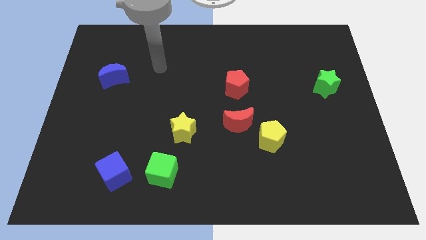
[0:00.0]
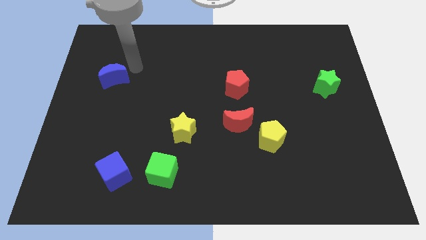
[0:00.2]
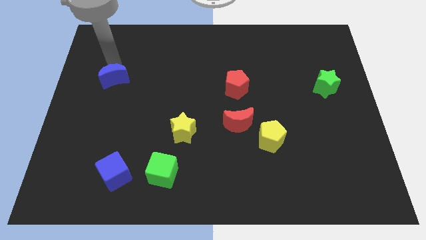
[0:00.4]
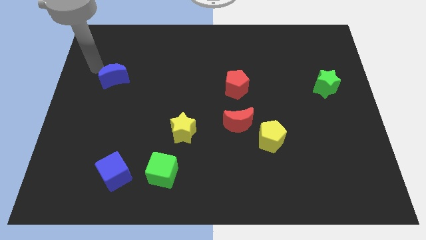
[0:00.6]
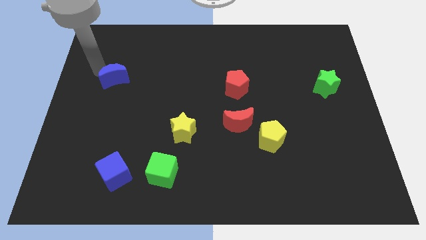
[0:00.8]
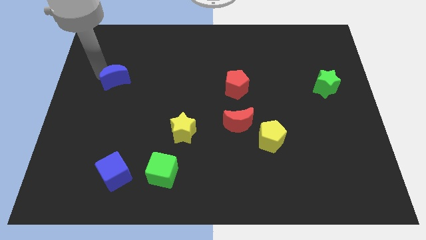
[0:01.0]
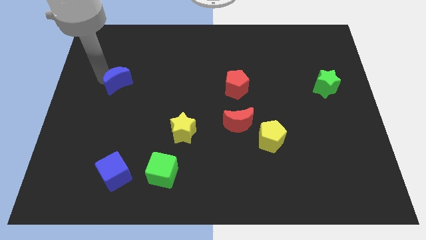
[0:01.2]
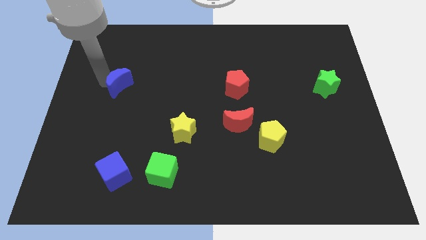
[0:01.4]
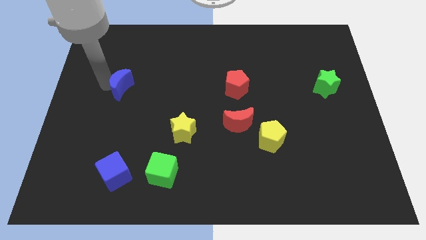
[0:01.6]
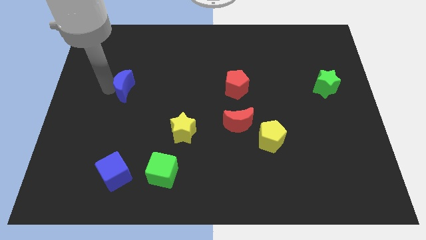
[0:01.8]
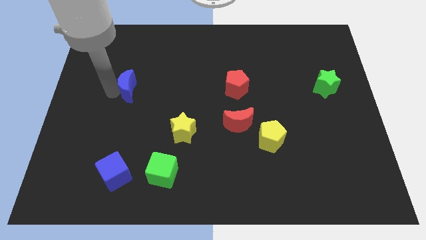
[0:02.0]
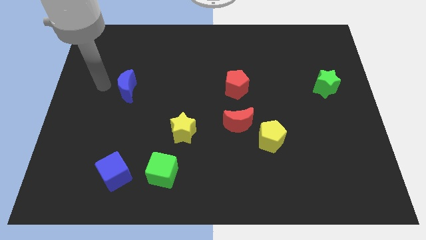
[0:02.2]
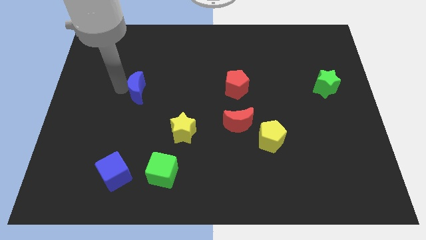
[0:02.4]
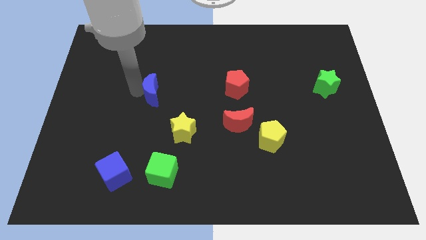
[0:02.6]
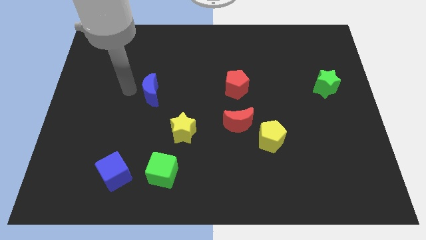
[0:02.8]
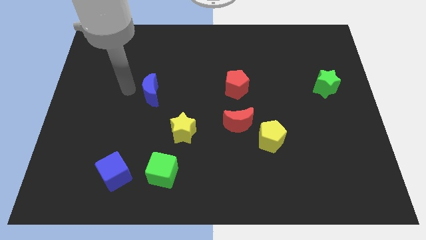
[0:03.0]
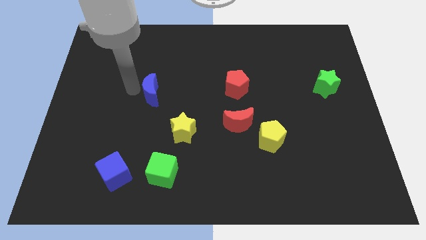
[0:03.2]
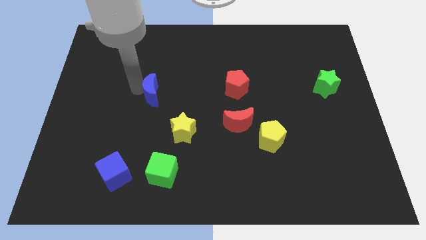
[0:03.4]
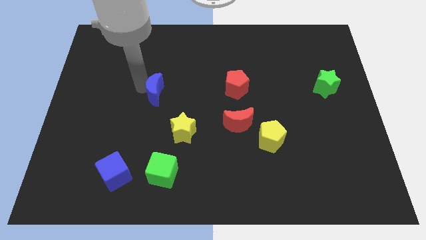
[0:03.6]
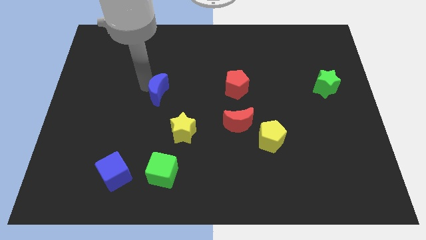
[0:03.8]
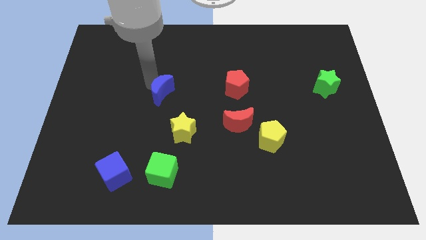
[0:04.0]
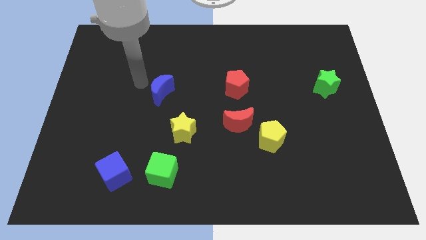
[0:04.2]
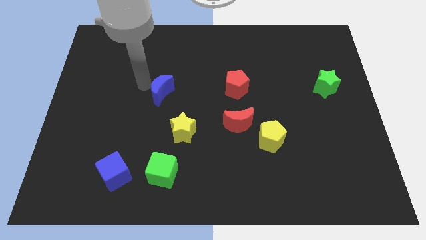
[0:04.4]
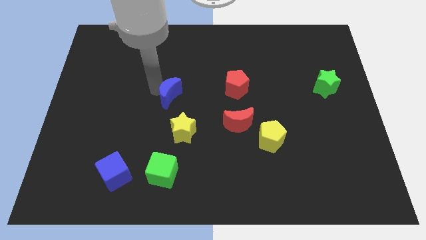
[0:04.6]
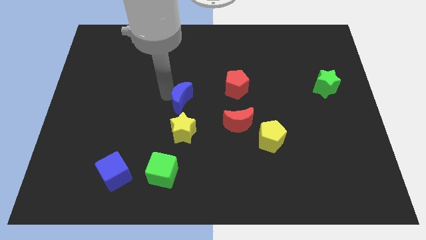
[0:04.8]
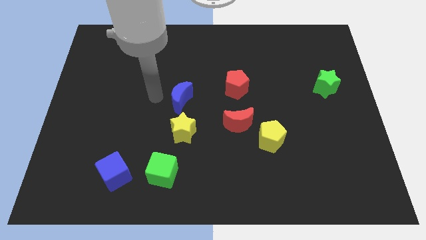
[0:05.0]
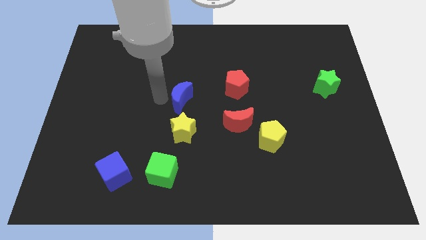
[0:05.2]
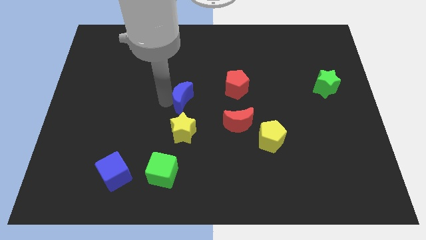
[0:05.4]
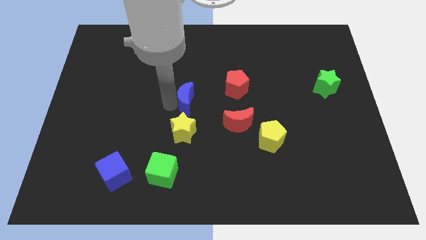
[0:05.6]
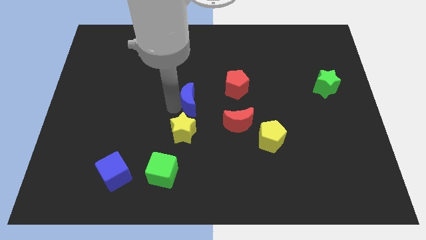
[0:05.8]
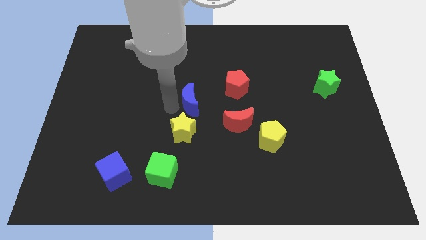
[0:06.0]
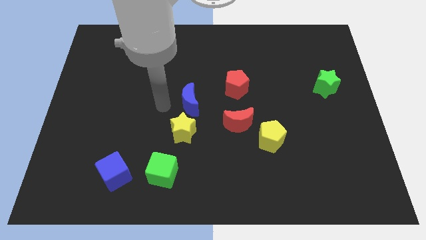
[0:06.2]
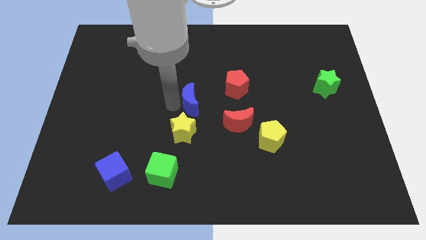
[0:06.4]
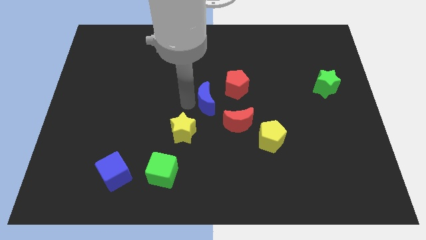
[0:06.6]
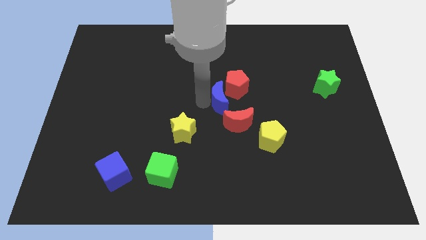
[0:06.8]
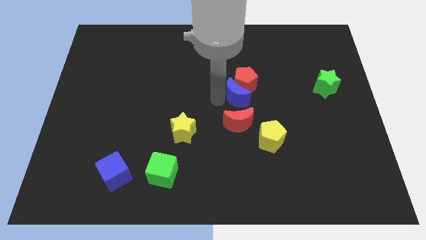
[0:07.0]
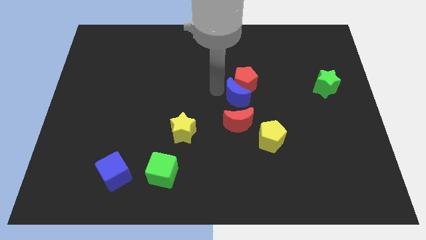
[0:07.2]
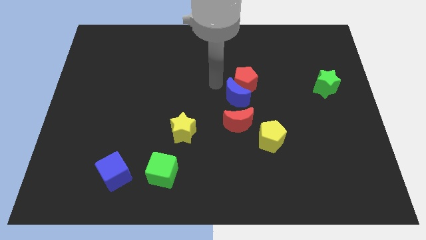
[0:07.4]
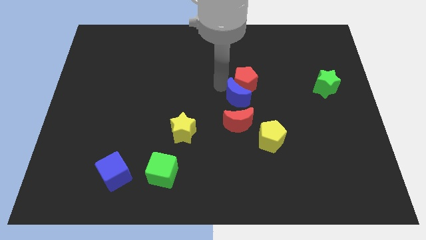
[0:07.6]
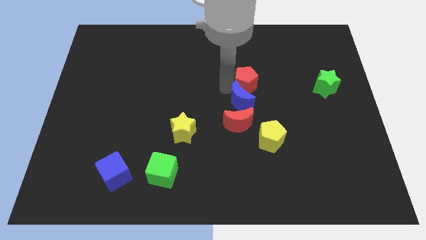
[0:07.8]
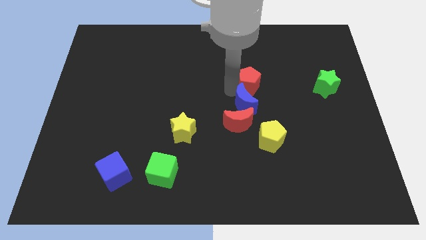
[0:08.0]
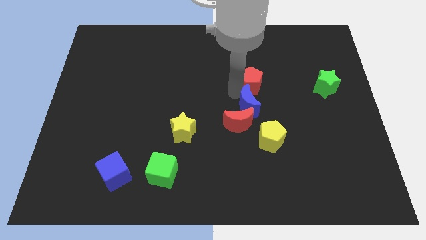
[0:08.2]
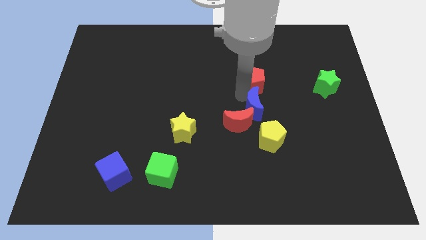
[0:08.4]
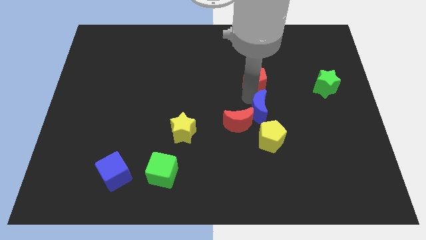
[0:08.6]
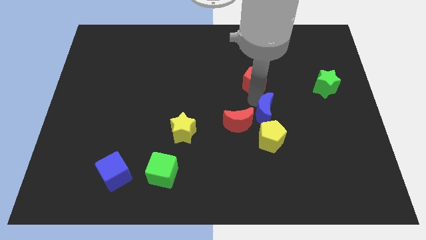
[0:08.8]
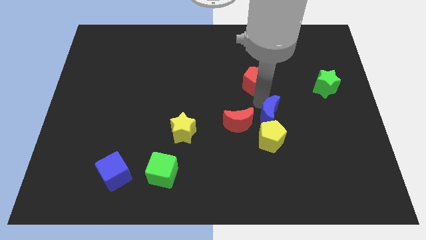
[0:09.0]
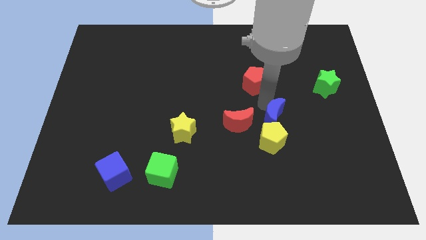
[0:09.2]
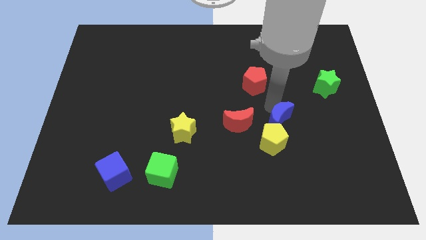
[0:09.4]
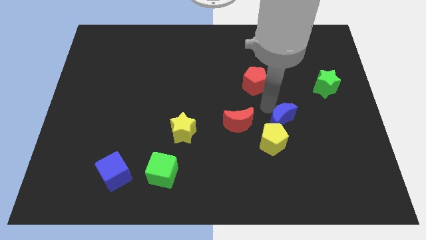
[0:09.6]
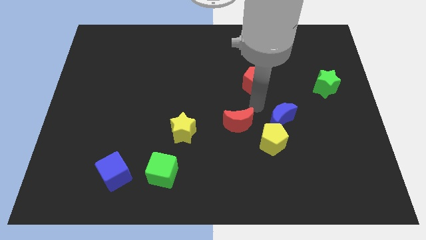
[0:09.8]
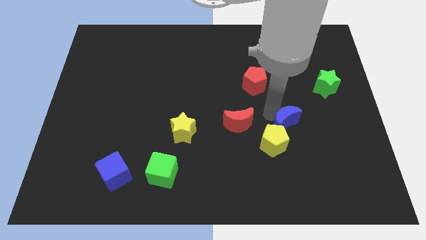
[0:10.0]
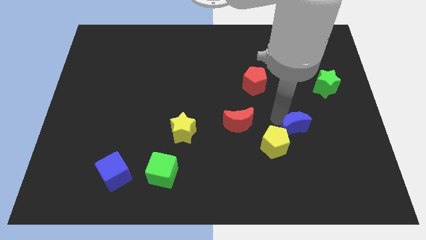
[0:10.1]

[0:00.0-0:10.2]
put the blue moon to the right side of the yellow pentagon

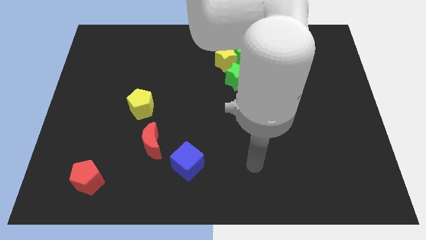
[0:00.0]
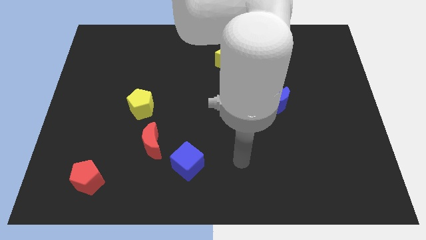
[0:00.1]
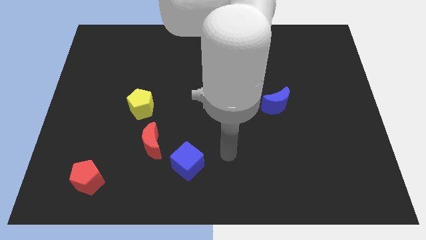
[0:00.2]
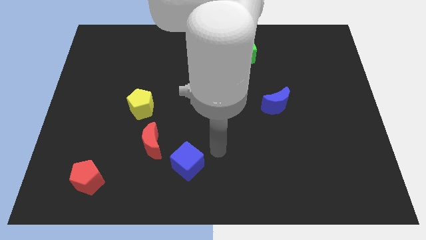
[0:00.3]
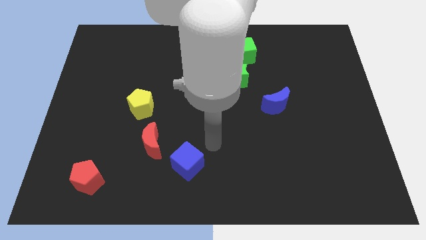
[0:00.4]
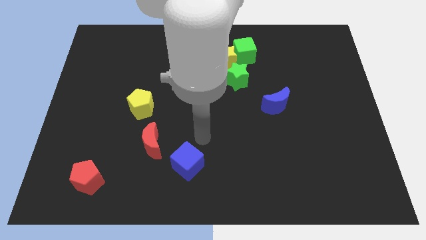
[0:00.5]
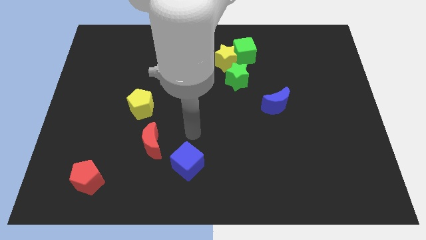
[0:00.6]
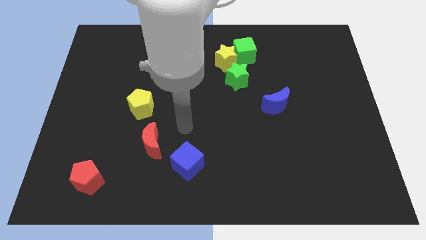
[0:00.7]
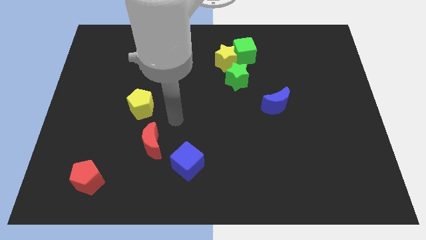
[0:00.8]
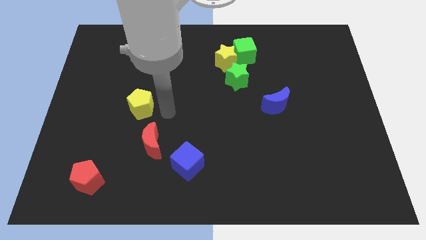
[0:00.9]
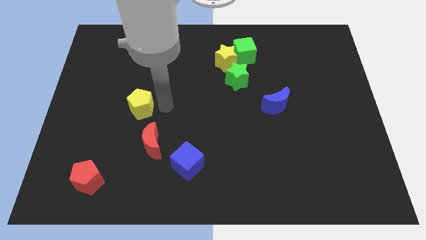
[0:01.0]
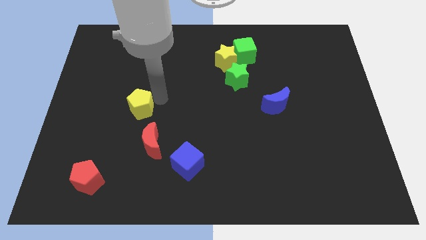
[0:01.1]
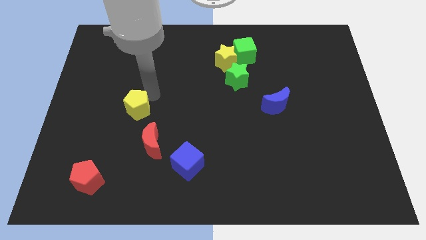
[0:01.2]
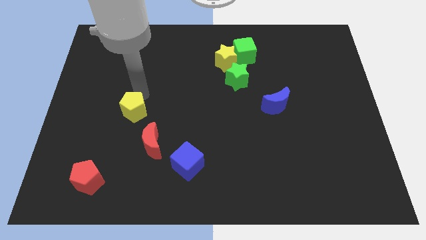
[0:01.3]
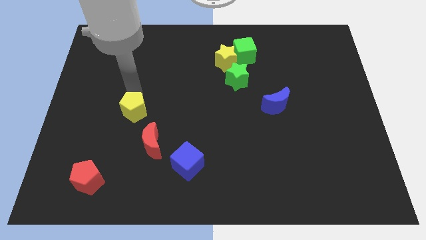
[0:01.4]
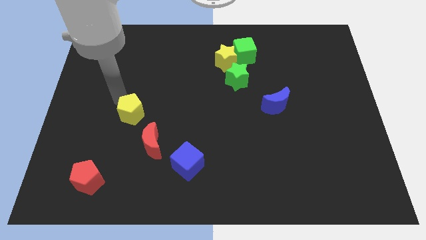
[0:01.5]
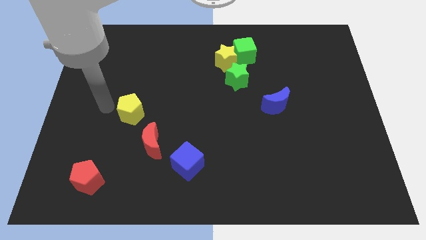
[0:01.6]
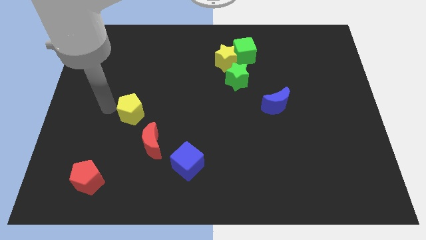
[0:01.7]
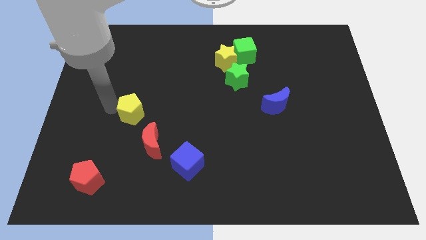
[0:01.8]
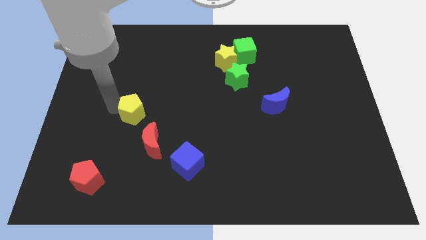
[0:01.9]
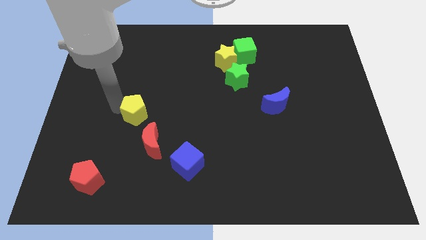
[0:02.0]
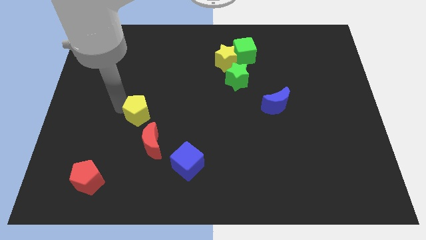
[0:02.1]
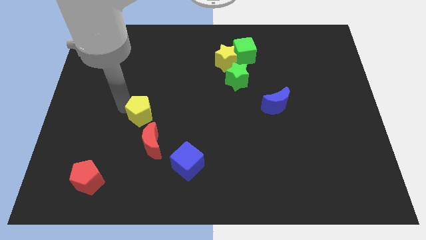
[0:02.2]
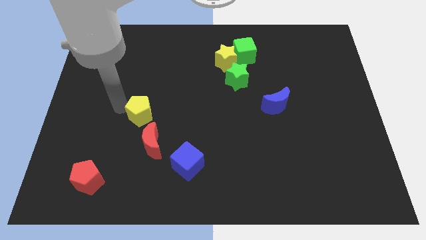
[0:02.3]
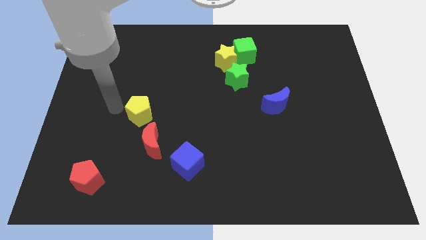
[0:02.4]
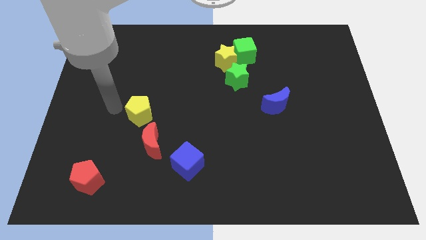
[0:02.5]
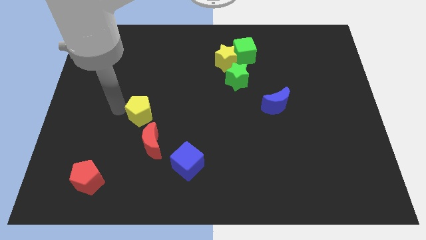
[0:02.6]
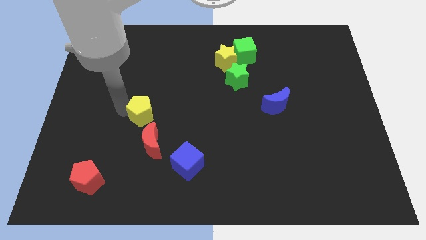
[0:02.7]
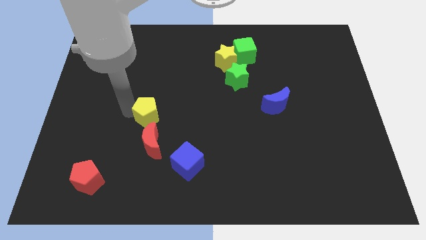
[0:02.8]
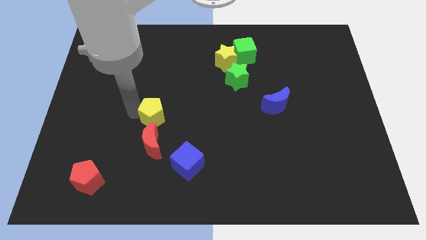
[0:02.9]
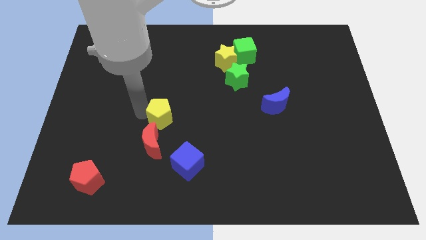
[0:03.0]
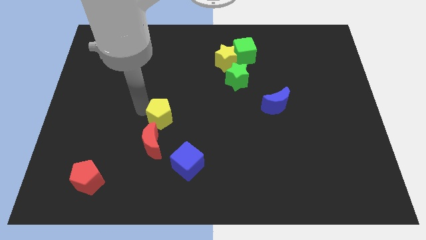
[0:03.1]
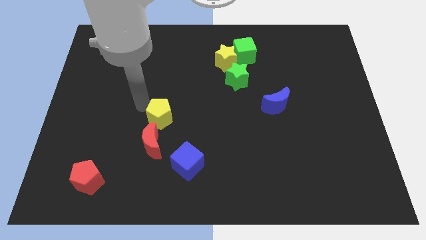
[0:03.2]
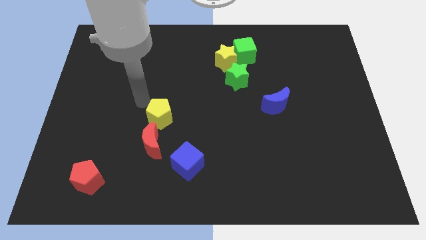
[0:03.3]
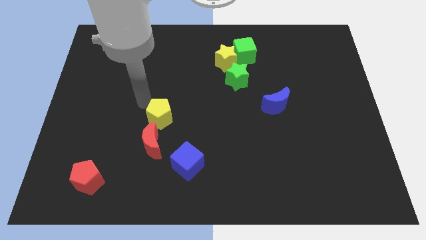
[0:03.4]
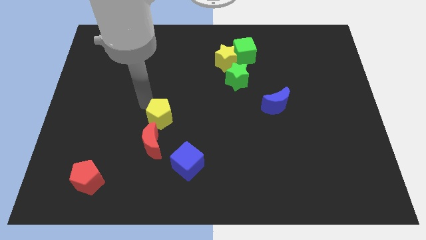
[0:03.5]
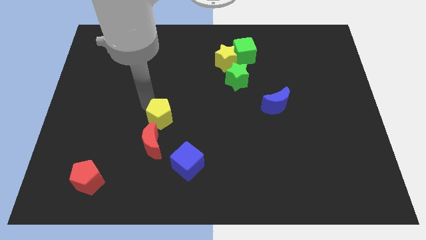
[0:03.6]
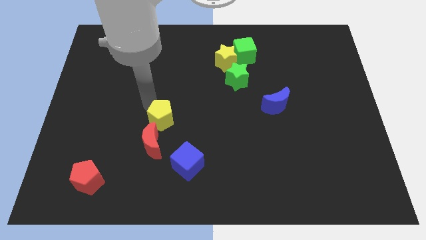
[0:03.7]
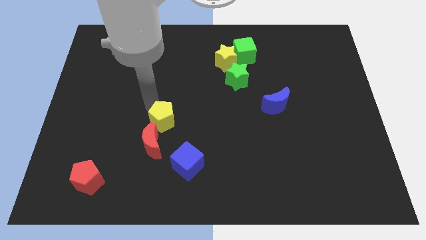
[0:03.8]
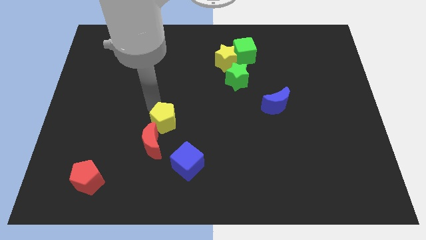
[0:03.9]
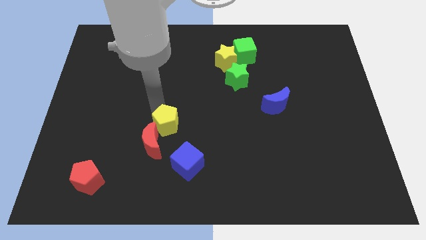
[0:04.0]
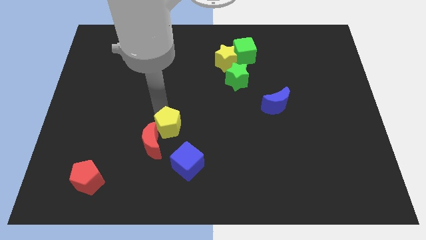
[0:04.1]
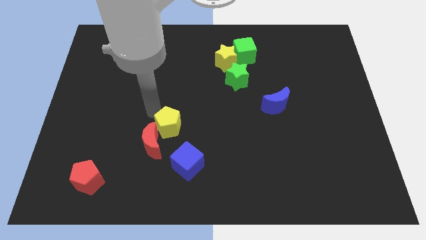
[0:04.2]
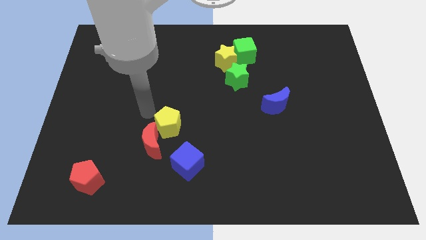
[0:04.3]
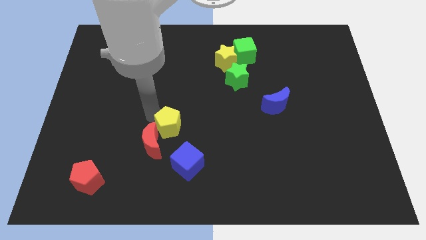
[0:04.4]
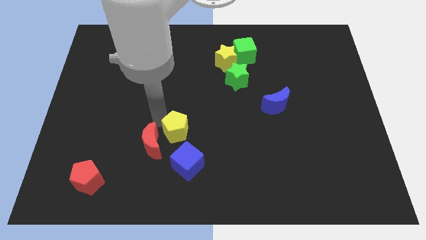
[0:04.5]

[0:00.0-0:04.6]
slide the yellow pentagon just right of the red moon
